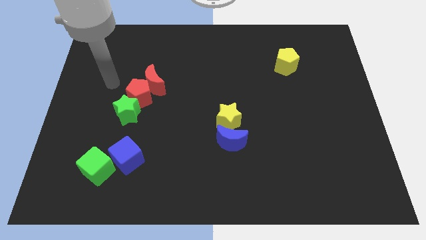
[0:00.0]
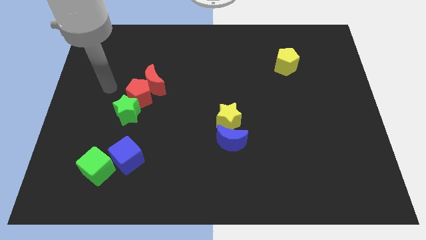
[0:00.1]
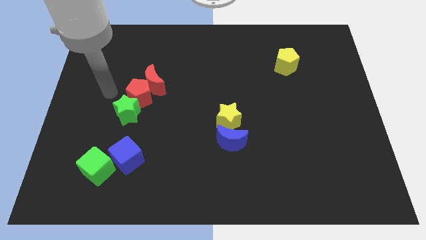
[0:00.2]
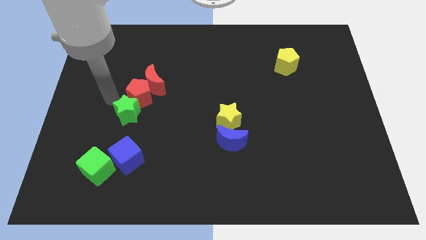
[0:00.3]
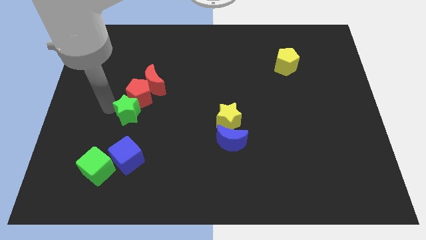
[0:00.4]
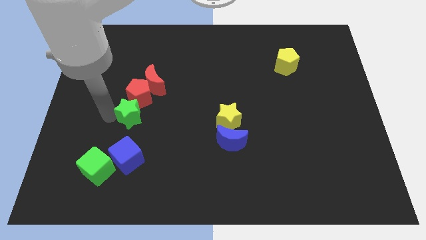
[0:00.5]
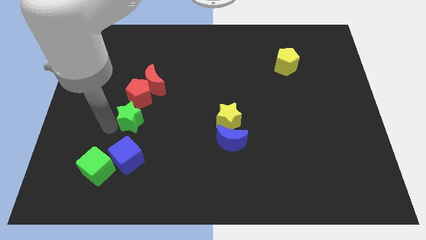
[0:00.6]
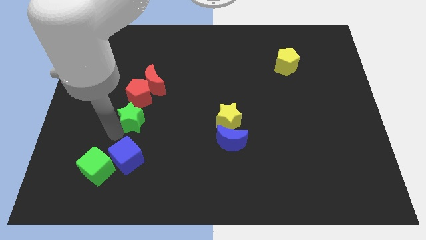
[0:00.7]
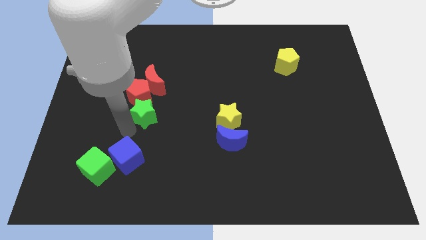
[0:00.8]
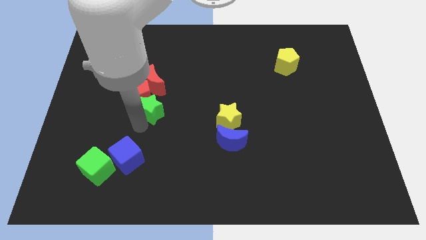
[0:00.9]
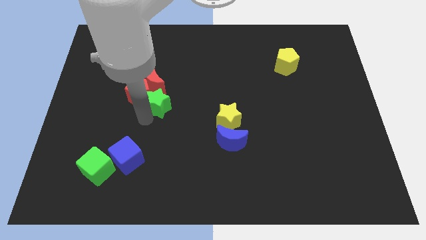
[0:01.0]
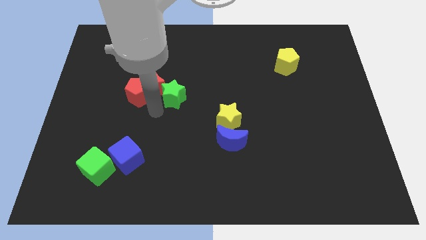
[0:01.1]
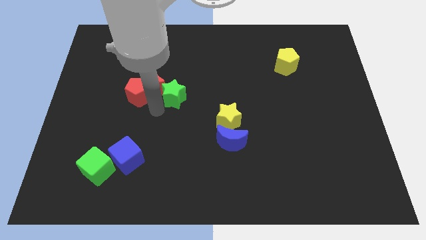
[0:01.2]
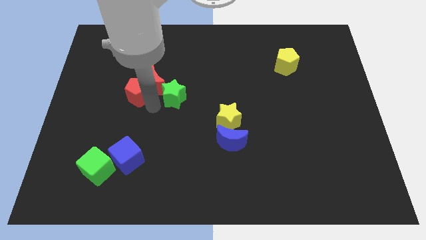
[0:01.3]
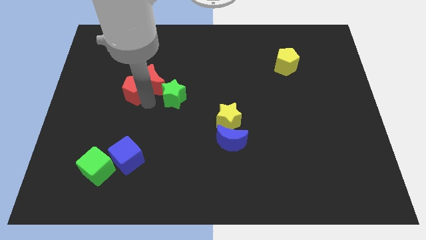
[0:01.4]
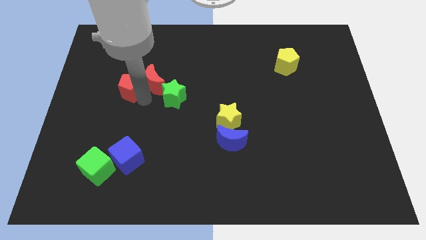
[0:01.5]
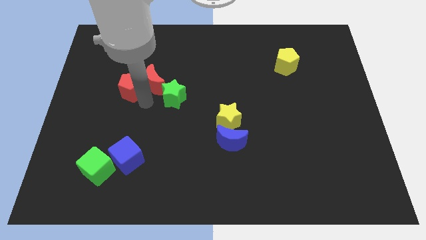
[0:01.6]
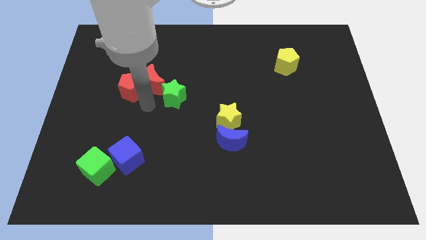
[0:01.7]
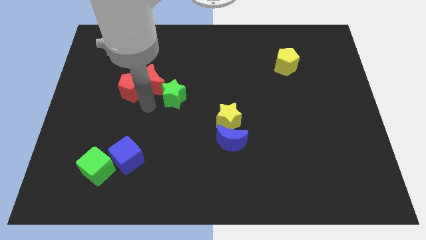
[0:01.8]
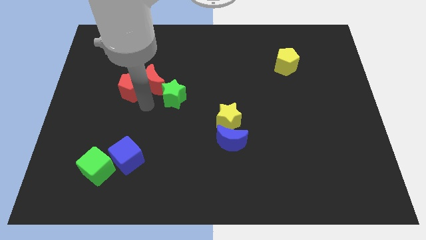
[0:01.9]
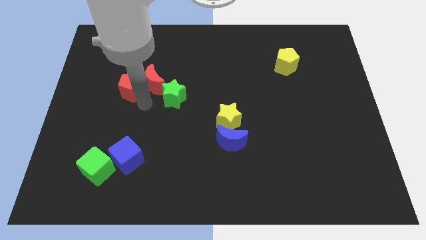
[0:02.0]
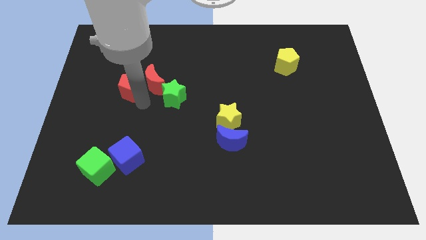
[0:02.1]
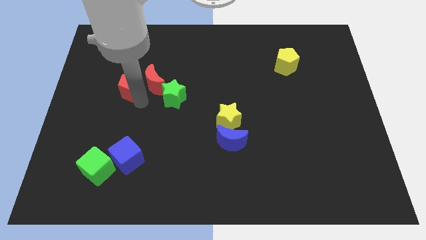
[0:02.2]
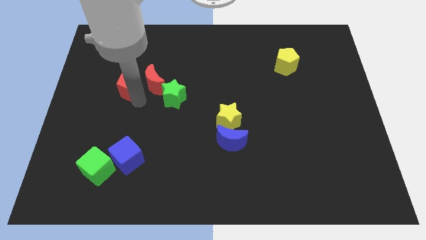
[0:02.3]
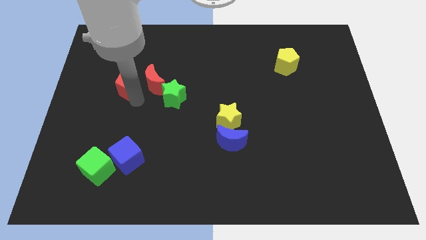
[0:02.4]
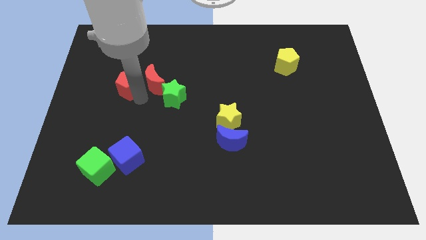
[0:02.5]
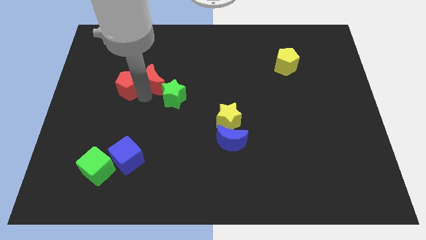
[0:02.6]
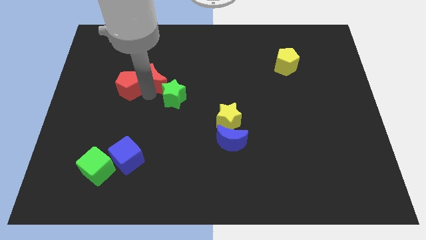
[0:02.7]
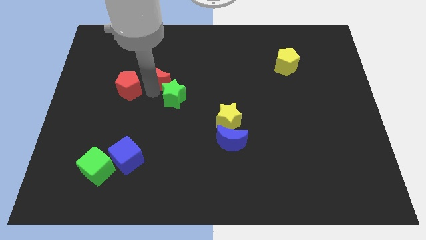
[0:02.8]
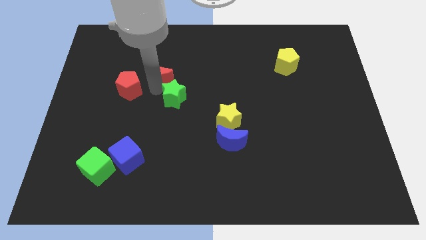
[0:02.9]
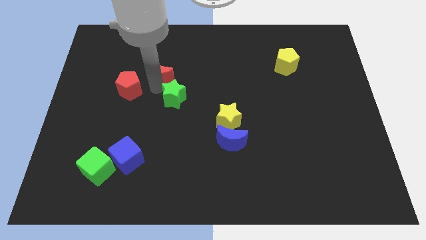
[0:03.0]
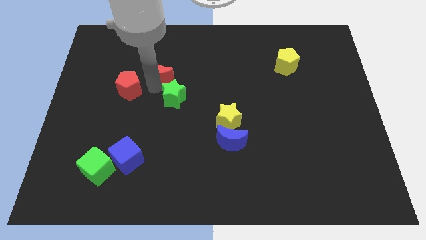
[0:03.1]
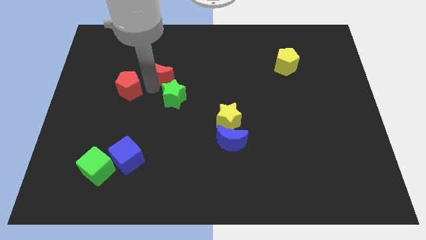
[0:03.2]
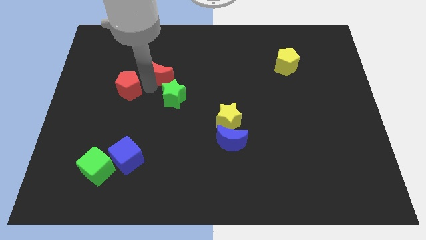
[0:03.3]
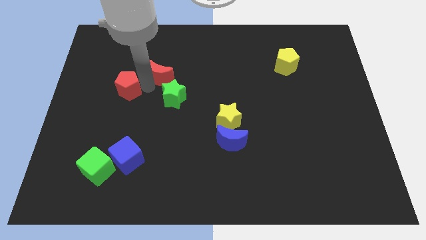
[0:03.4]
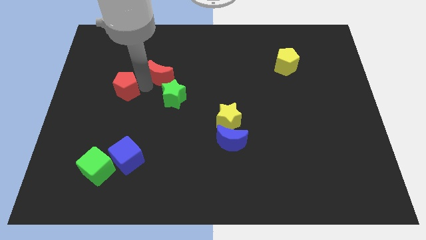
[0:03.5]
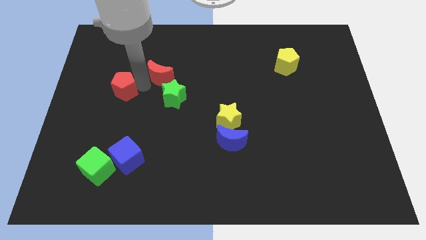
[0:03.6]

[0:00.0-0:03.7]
separate the red pentagon from the red moon and green star

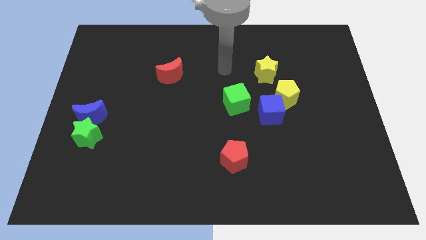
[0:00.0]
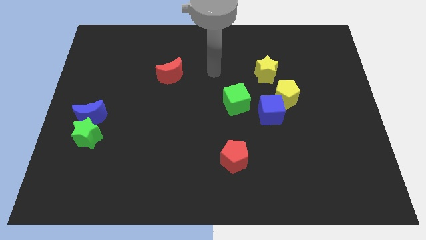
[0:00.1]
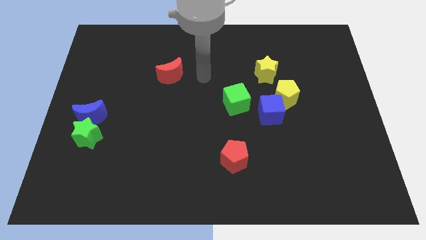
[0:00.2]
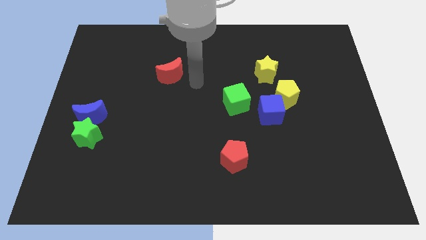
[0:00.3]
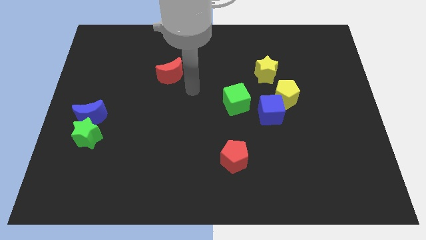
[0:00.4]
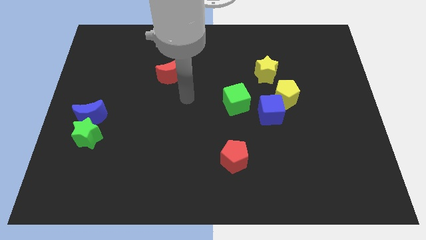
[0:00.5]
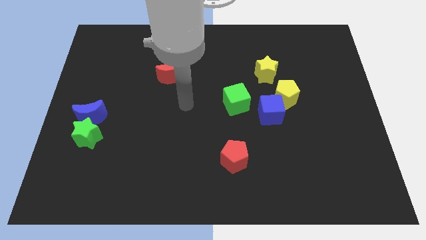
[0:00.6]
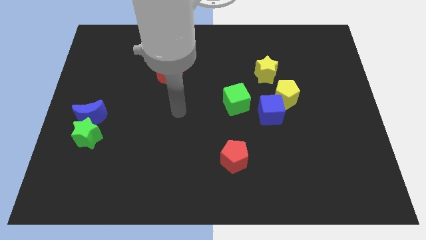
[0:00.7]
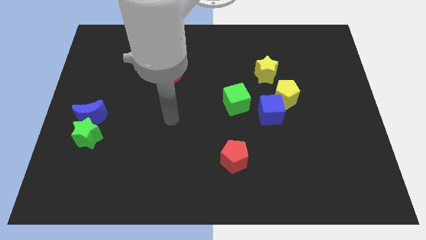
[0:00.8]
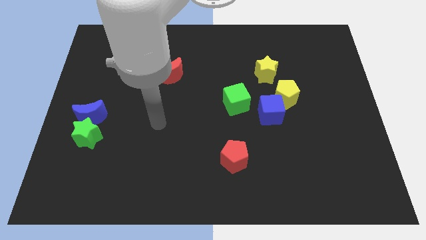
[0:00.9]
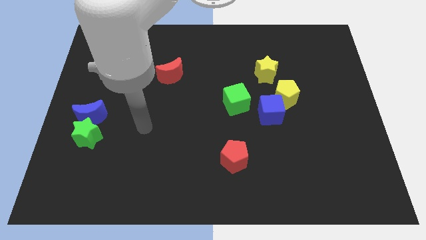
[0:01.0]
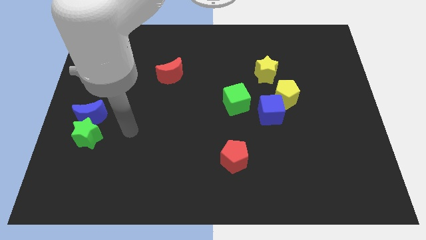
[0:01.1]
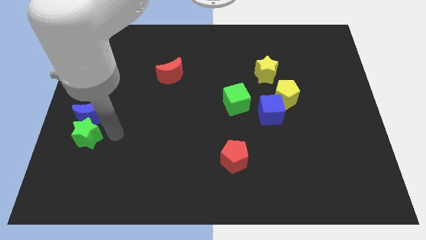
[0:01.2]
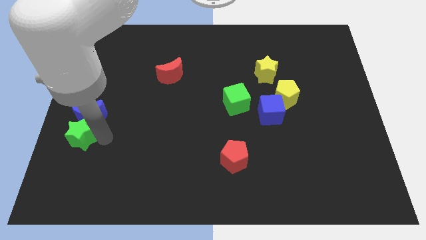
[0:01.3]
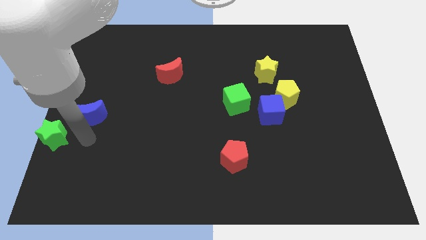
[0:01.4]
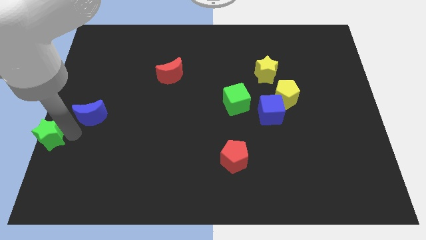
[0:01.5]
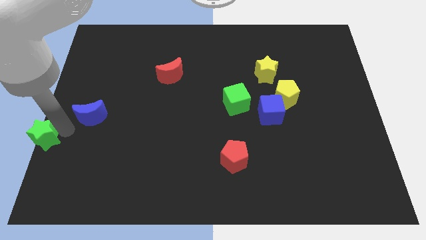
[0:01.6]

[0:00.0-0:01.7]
separate the blue moon from the green star

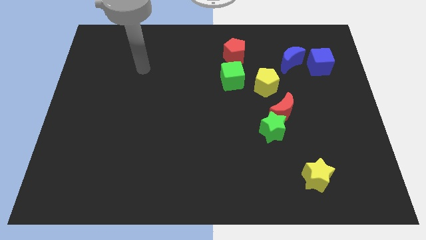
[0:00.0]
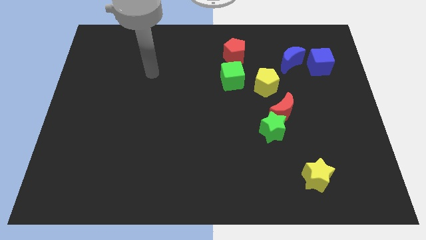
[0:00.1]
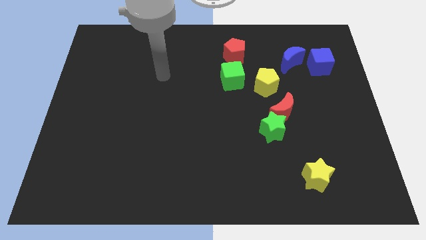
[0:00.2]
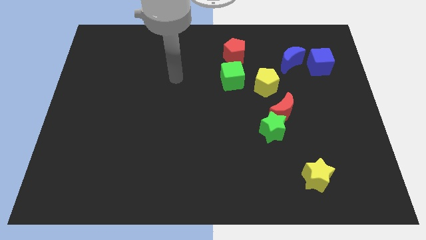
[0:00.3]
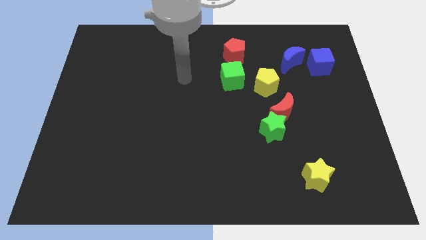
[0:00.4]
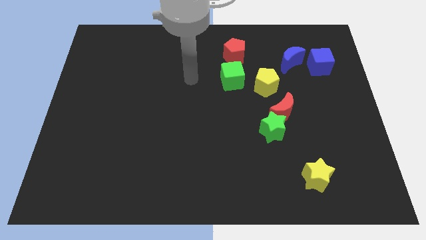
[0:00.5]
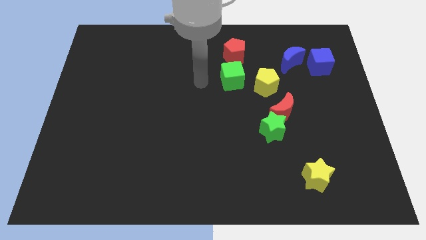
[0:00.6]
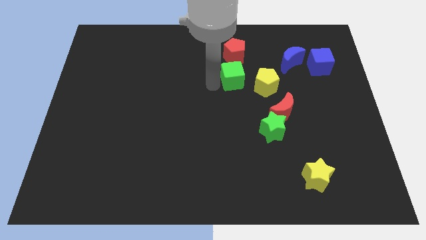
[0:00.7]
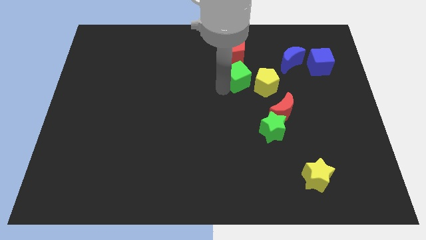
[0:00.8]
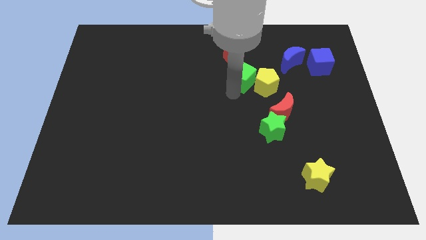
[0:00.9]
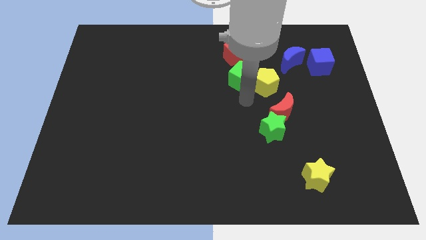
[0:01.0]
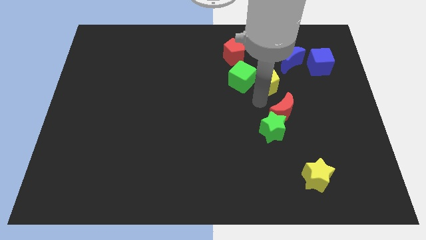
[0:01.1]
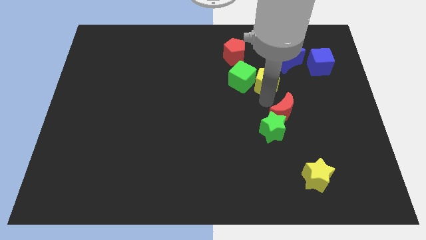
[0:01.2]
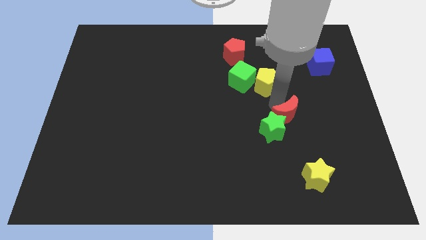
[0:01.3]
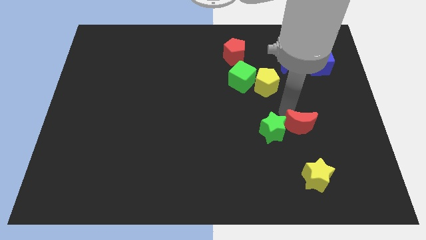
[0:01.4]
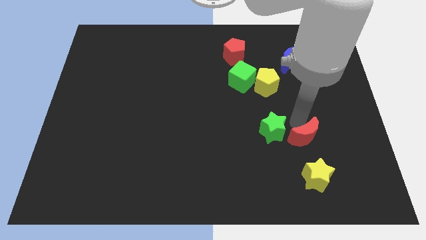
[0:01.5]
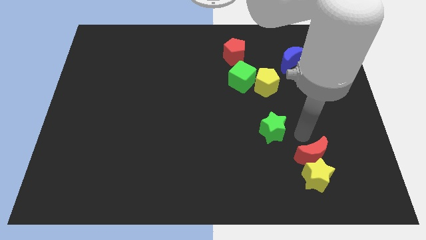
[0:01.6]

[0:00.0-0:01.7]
pull the green star apart from the red moon

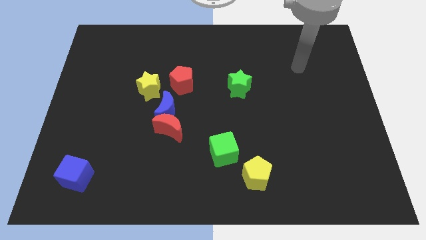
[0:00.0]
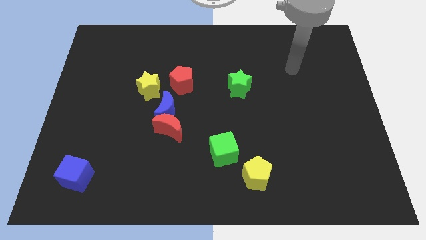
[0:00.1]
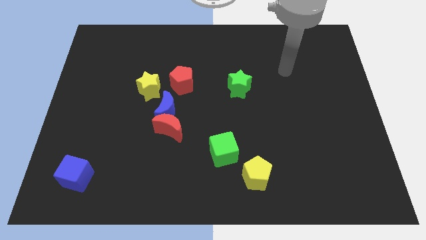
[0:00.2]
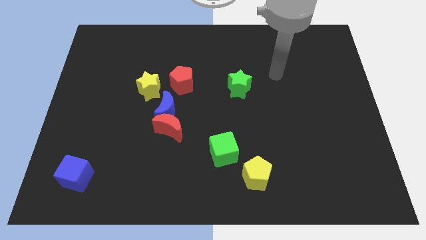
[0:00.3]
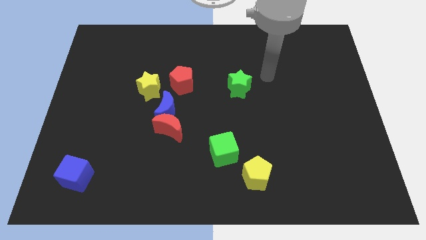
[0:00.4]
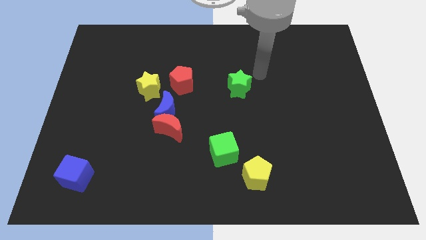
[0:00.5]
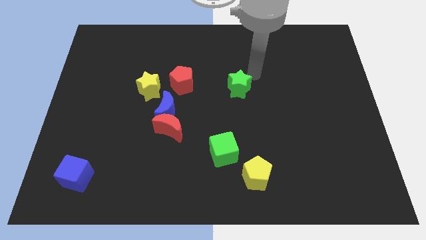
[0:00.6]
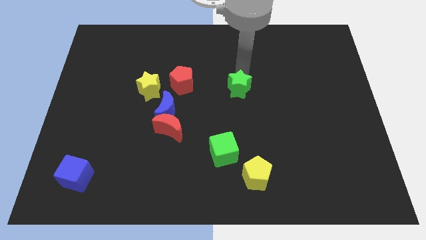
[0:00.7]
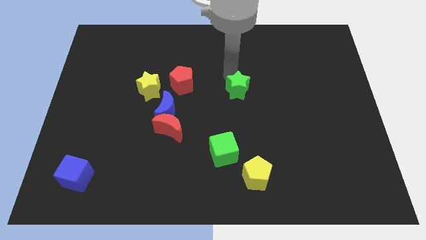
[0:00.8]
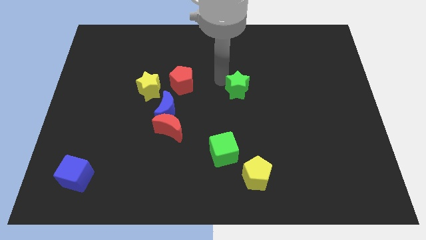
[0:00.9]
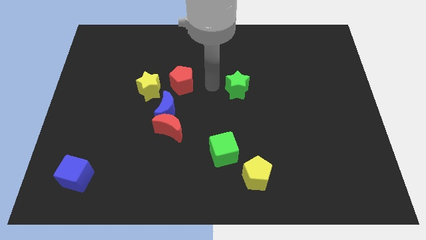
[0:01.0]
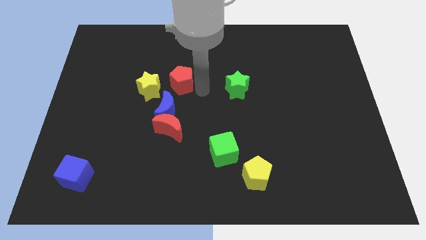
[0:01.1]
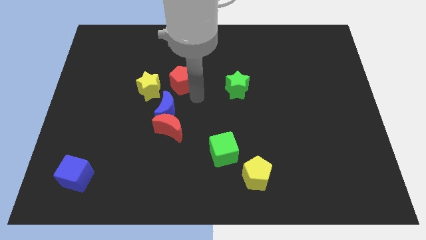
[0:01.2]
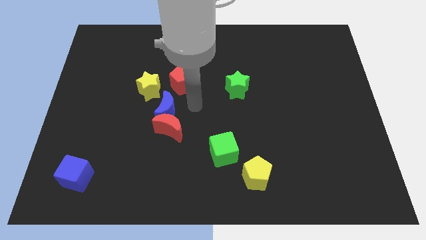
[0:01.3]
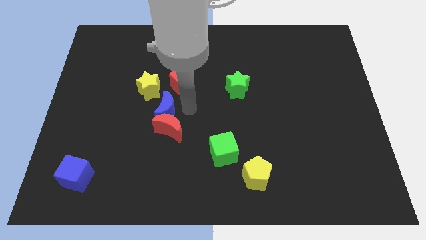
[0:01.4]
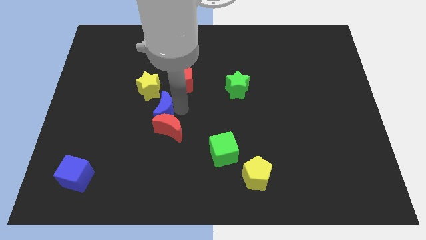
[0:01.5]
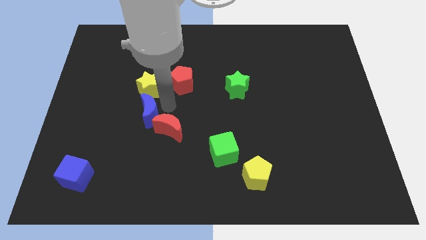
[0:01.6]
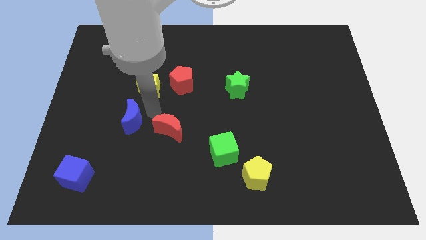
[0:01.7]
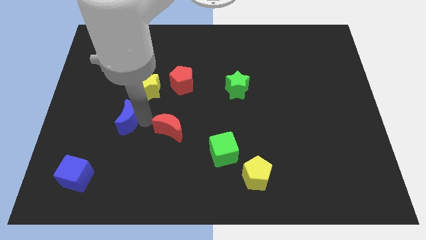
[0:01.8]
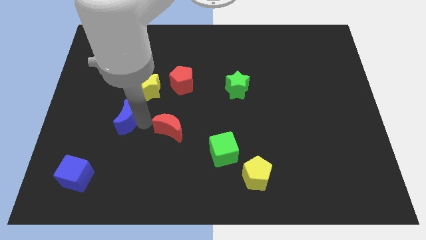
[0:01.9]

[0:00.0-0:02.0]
pull the red moon apart from the blue moon

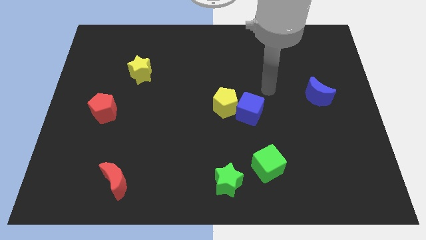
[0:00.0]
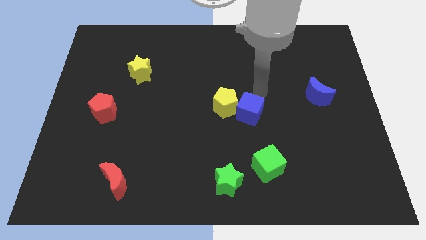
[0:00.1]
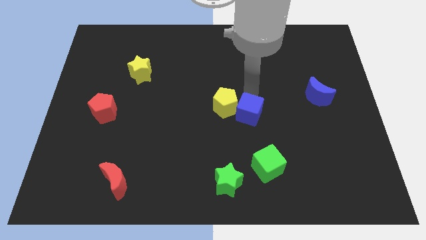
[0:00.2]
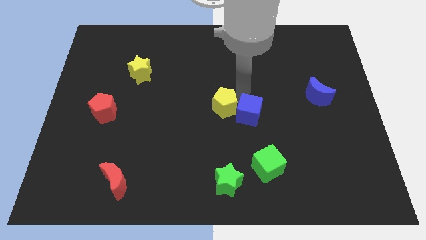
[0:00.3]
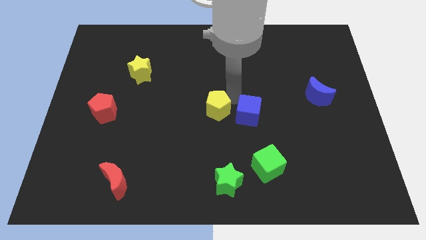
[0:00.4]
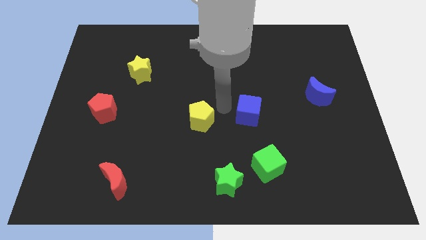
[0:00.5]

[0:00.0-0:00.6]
move the blue cube away from the yellow pentagon
